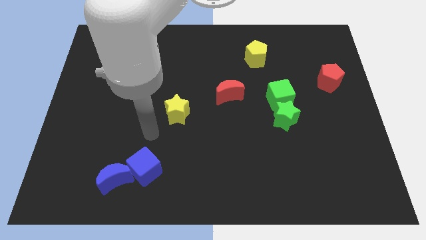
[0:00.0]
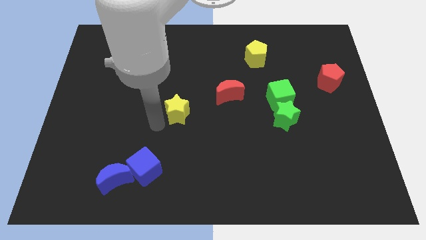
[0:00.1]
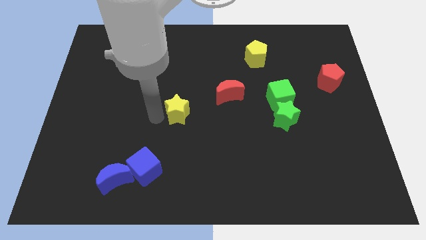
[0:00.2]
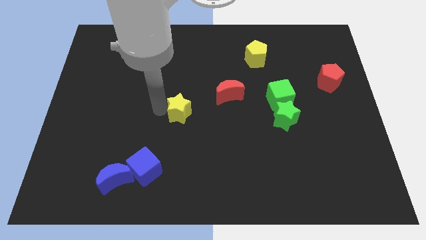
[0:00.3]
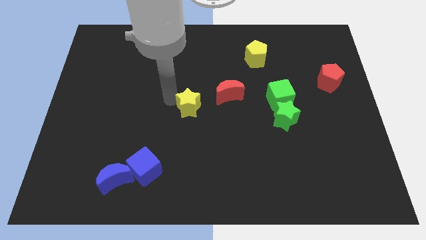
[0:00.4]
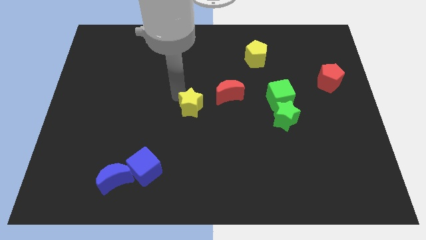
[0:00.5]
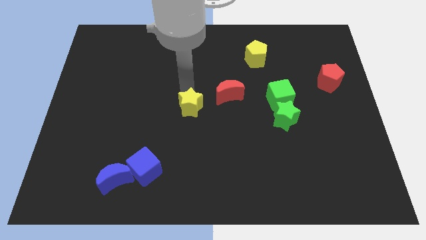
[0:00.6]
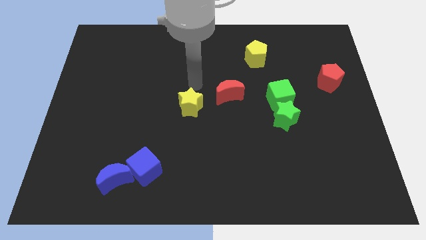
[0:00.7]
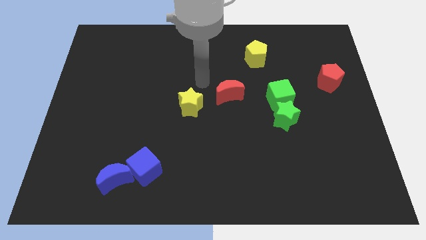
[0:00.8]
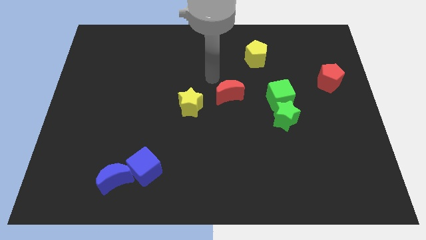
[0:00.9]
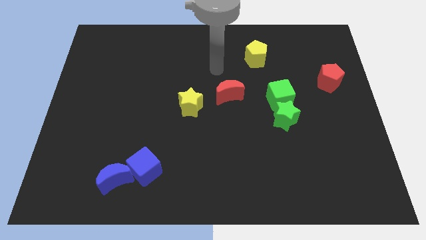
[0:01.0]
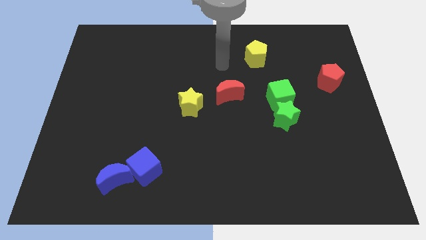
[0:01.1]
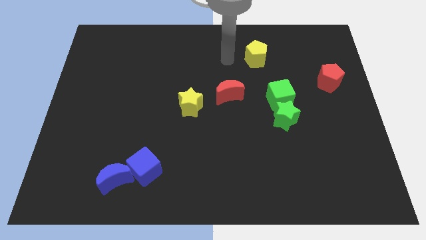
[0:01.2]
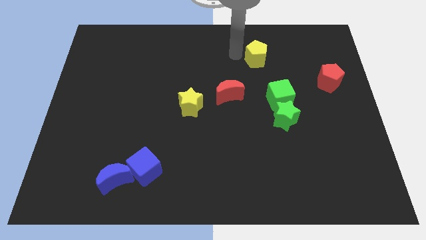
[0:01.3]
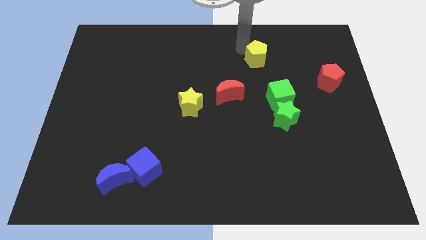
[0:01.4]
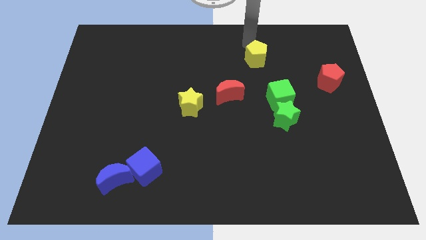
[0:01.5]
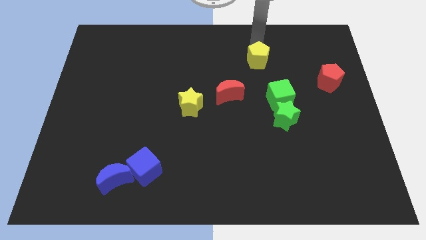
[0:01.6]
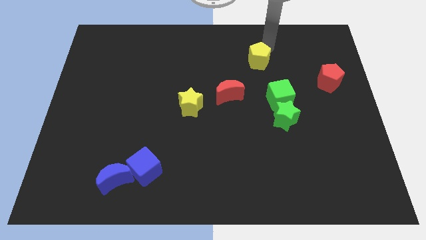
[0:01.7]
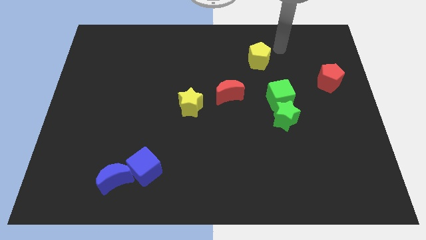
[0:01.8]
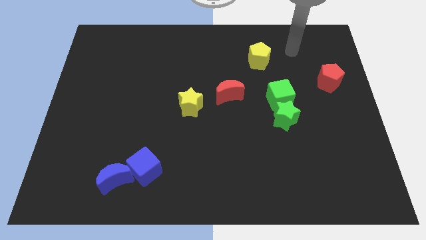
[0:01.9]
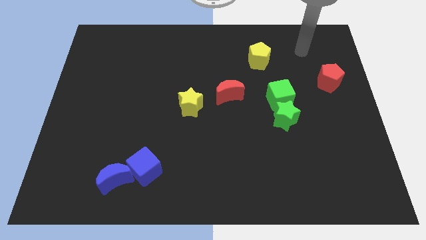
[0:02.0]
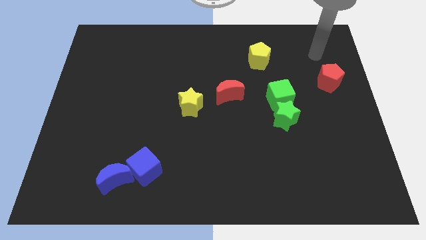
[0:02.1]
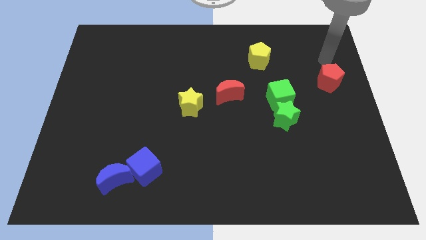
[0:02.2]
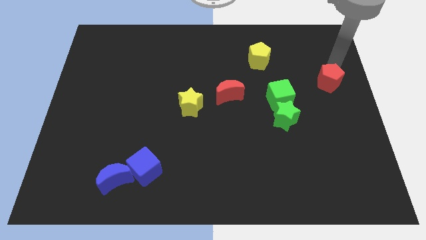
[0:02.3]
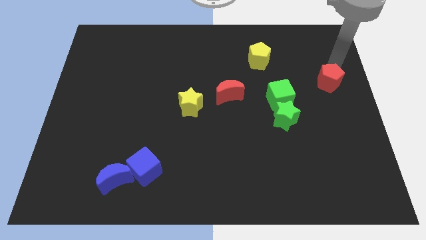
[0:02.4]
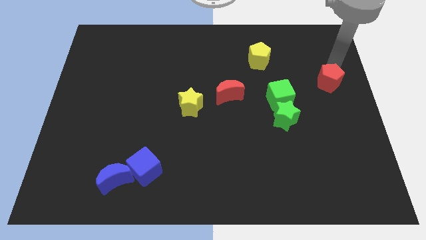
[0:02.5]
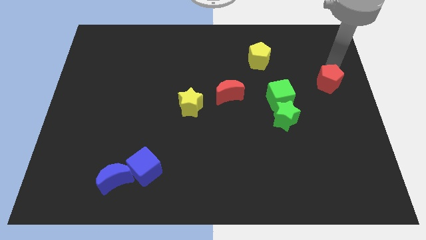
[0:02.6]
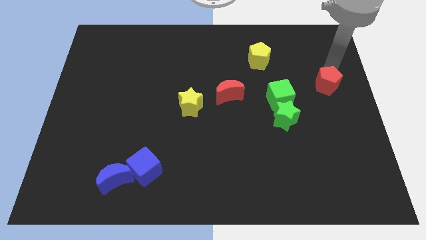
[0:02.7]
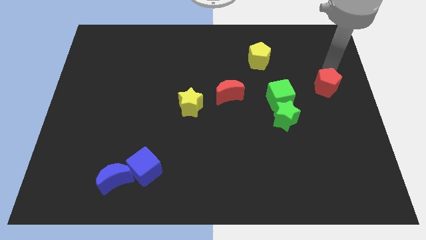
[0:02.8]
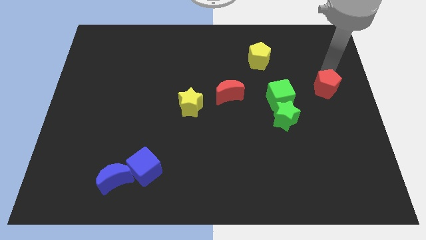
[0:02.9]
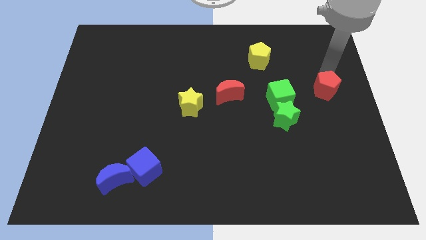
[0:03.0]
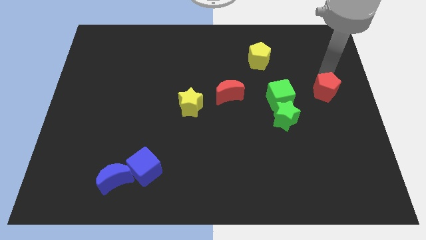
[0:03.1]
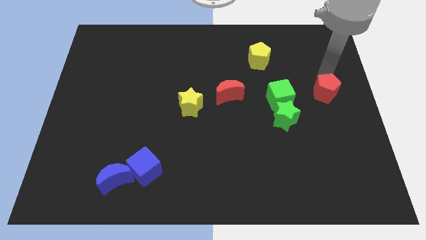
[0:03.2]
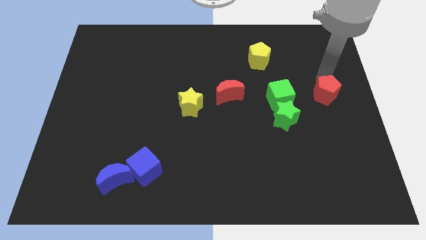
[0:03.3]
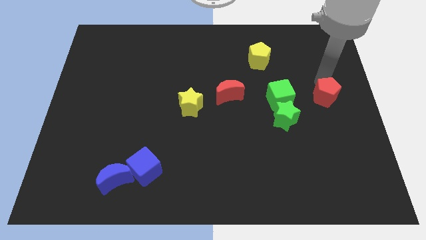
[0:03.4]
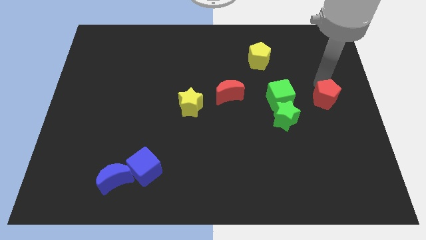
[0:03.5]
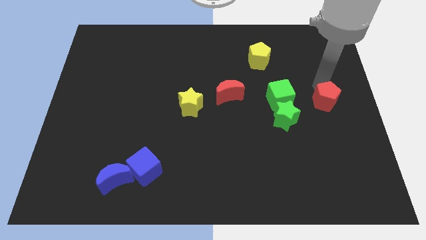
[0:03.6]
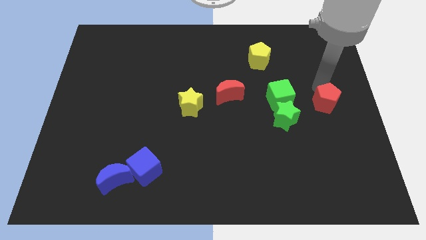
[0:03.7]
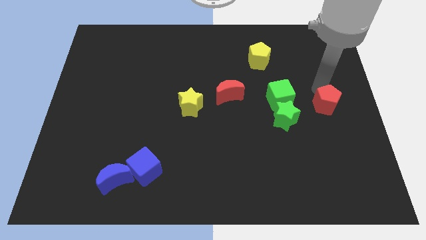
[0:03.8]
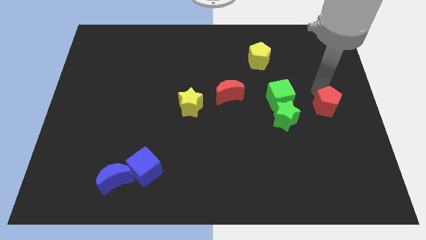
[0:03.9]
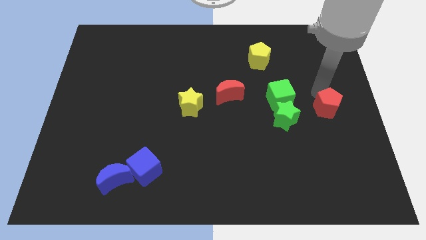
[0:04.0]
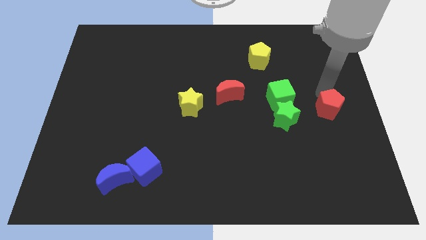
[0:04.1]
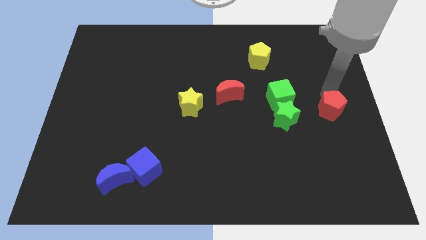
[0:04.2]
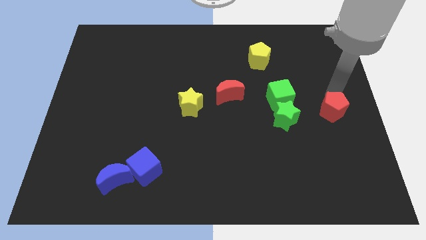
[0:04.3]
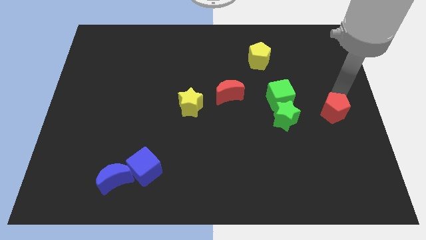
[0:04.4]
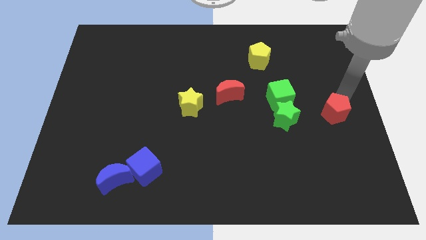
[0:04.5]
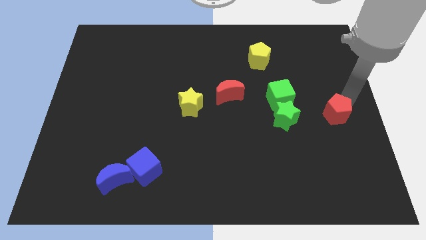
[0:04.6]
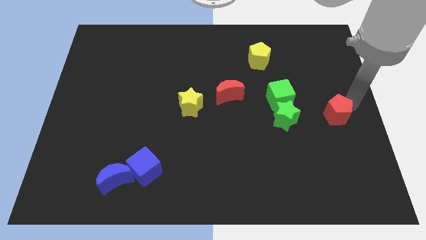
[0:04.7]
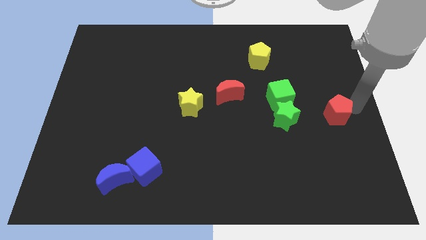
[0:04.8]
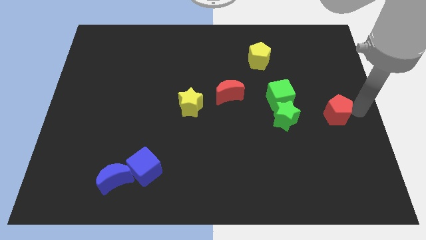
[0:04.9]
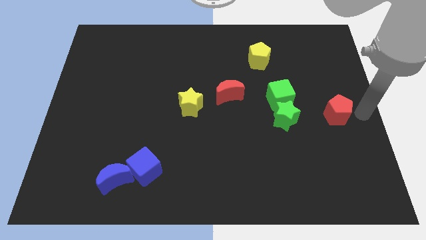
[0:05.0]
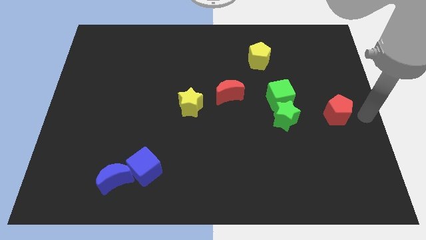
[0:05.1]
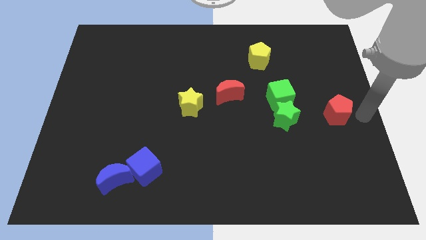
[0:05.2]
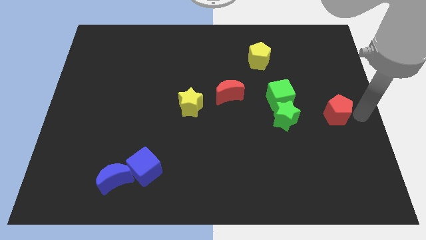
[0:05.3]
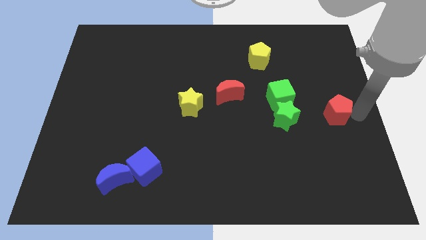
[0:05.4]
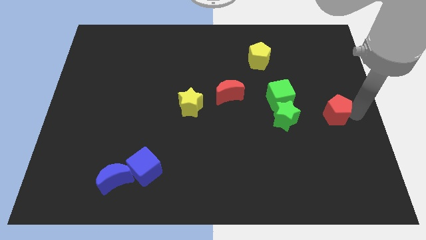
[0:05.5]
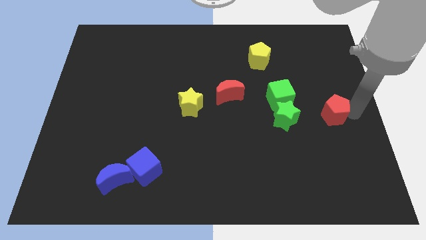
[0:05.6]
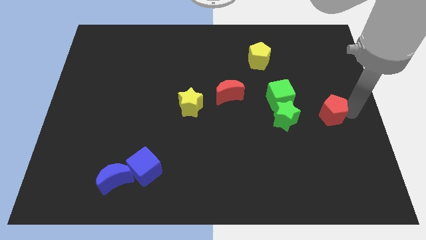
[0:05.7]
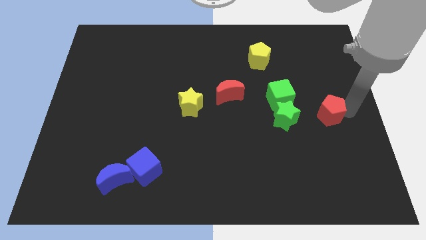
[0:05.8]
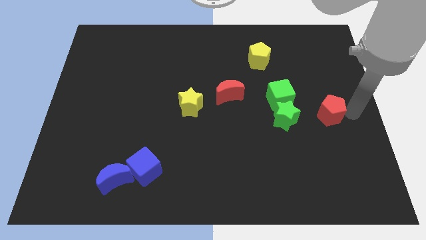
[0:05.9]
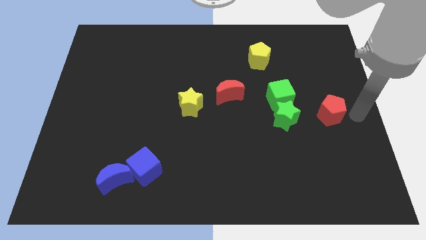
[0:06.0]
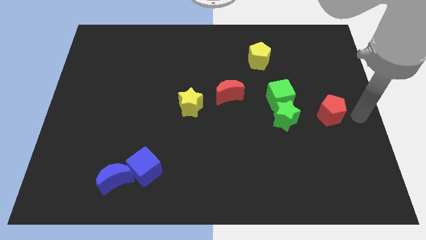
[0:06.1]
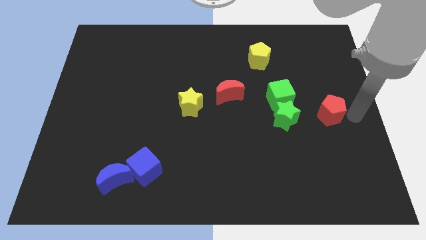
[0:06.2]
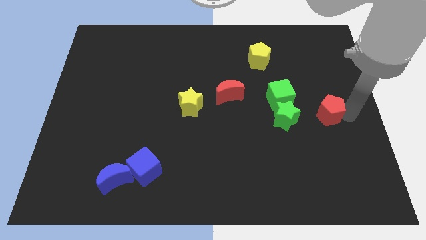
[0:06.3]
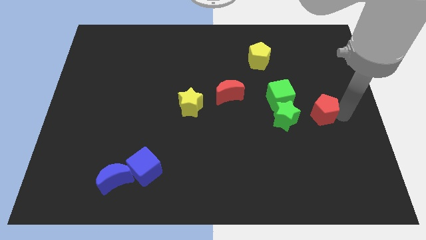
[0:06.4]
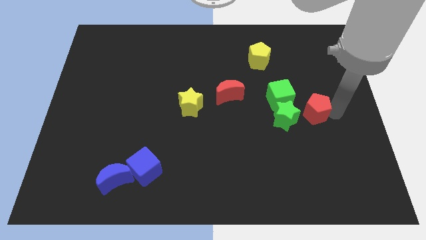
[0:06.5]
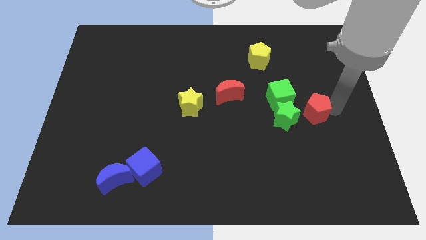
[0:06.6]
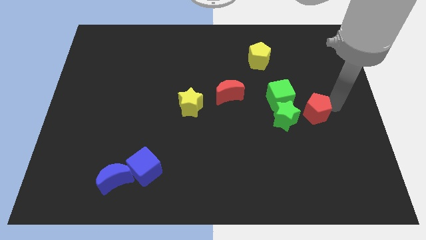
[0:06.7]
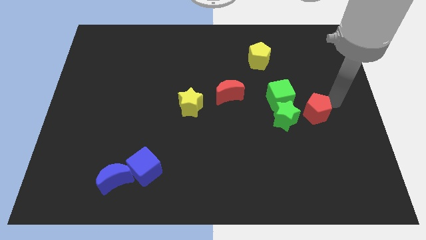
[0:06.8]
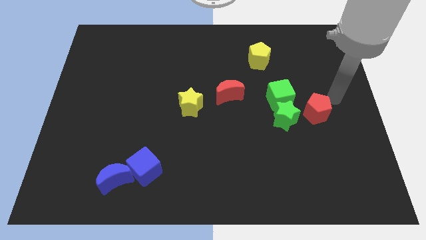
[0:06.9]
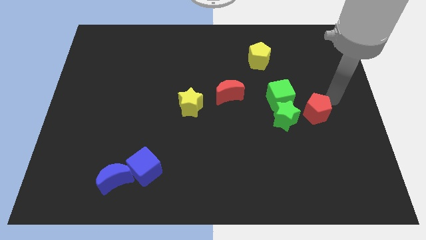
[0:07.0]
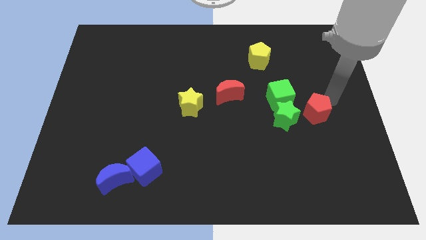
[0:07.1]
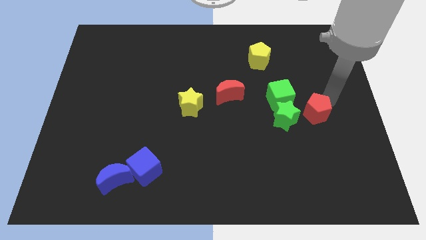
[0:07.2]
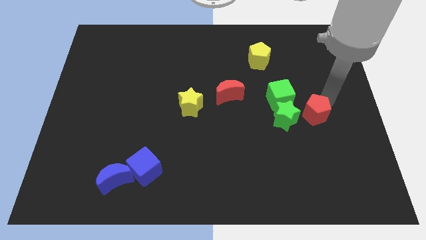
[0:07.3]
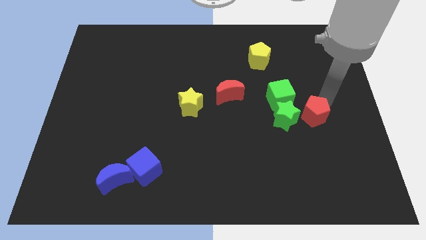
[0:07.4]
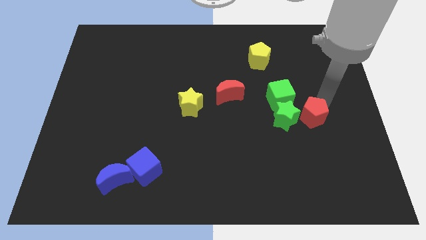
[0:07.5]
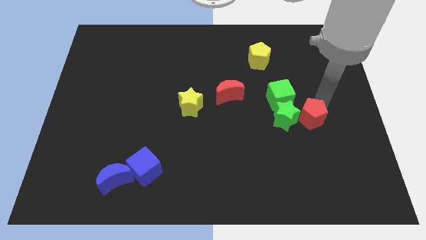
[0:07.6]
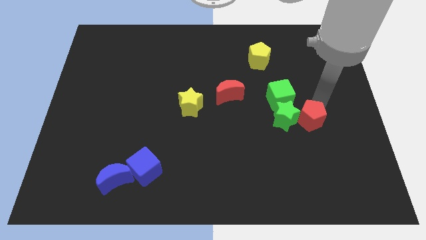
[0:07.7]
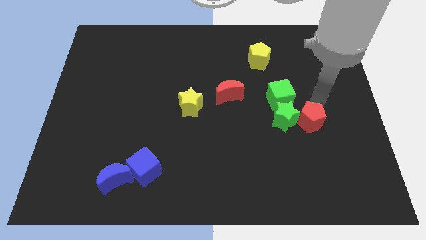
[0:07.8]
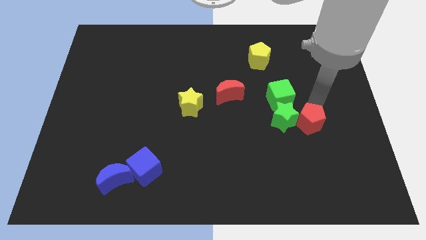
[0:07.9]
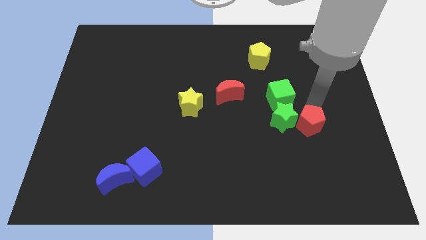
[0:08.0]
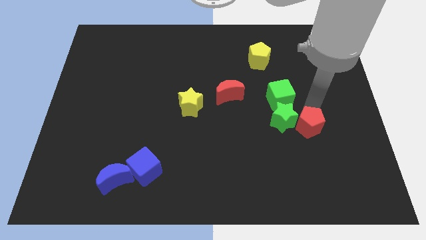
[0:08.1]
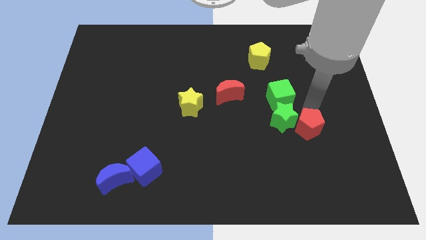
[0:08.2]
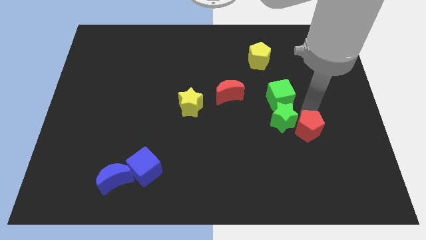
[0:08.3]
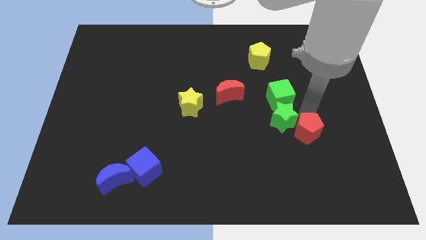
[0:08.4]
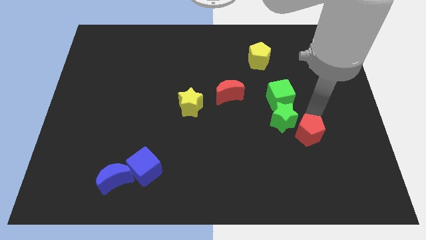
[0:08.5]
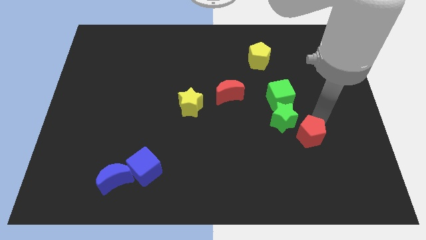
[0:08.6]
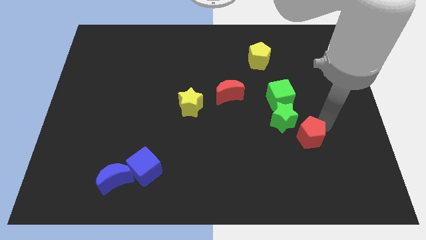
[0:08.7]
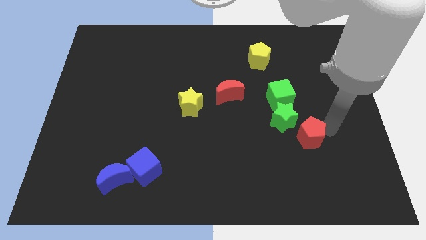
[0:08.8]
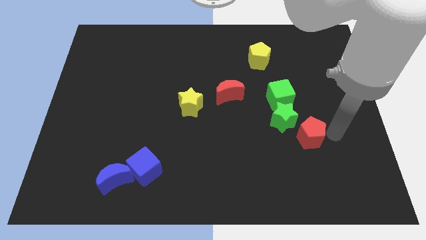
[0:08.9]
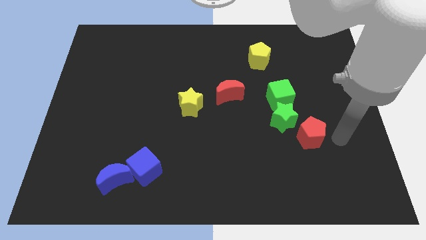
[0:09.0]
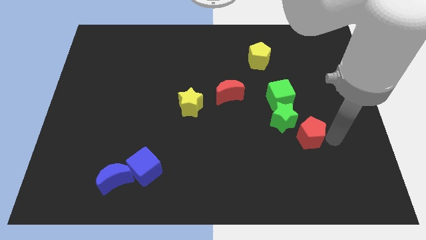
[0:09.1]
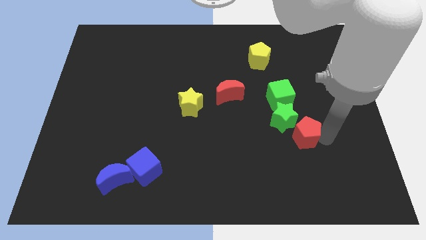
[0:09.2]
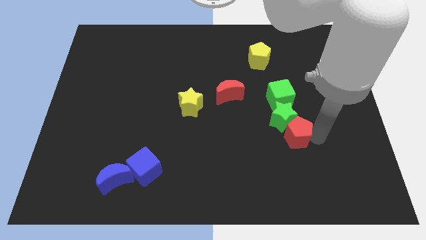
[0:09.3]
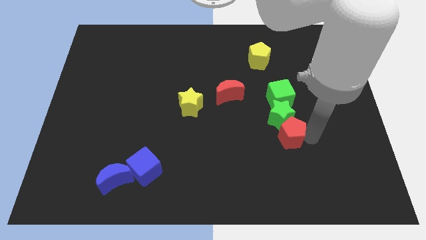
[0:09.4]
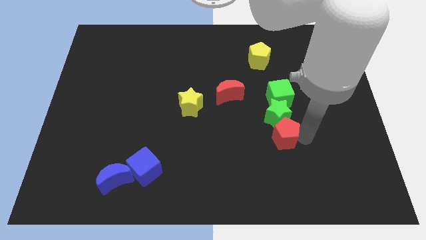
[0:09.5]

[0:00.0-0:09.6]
slide the red pentagon down and to the left
